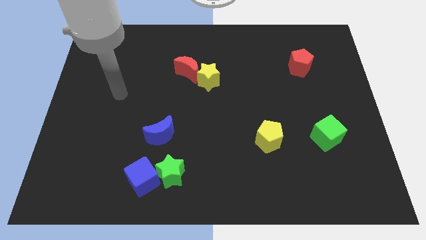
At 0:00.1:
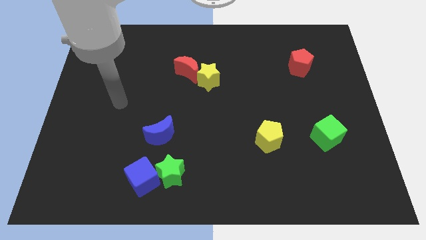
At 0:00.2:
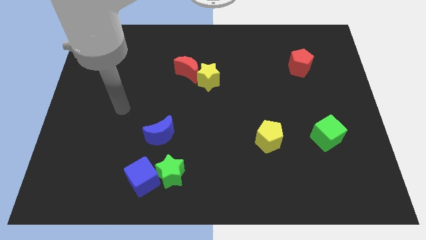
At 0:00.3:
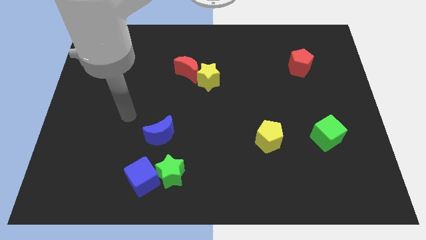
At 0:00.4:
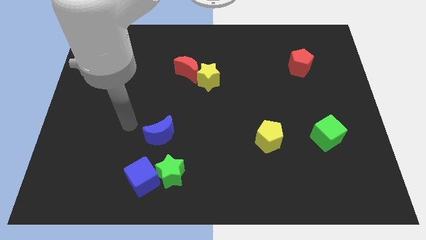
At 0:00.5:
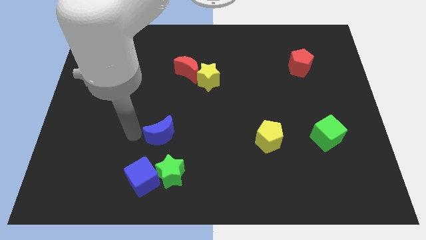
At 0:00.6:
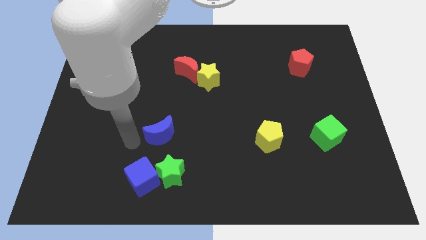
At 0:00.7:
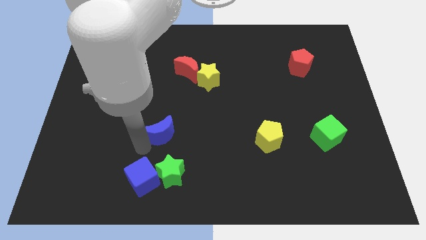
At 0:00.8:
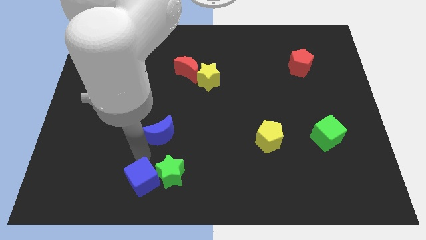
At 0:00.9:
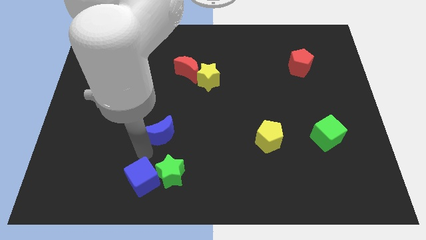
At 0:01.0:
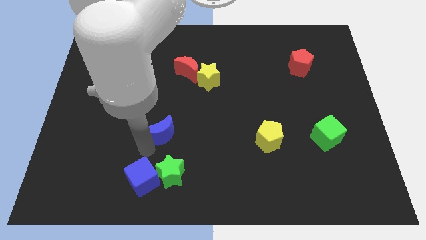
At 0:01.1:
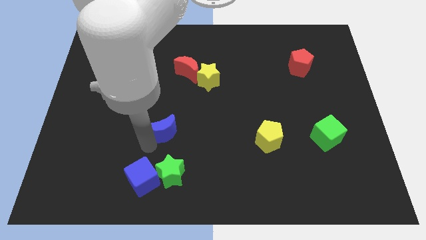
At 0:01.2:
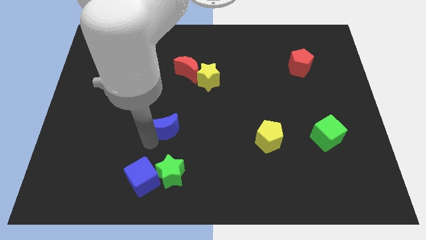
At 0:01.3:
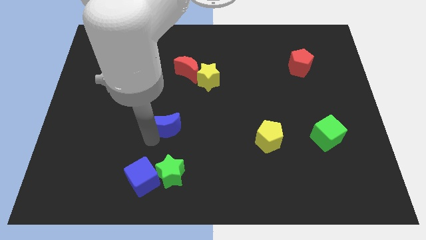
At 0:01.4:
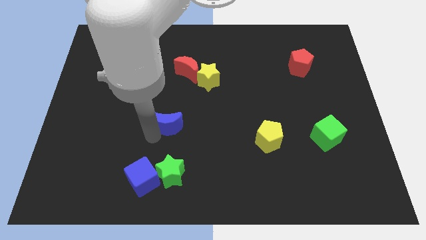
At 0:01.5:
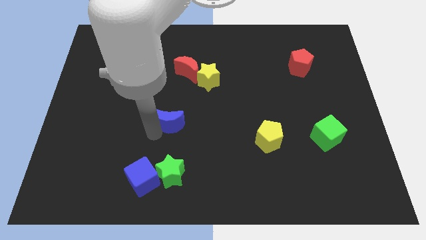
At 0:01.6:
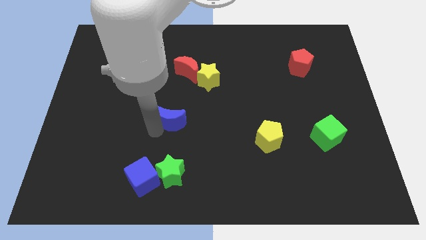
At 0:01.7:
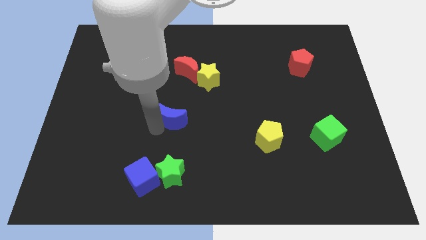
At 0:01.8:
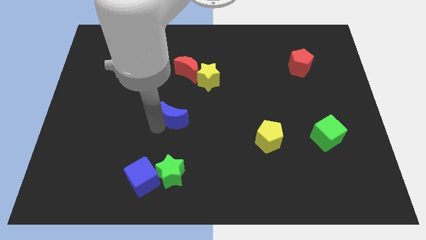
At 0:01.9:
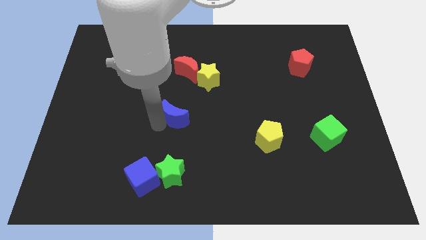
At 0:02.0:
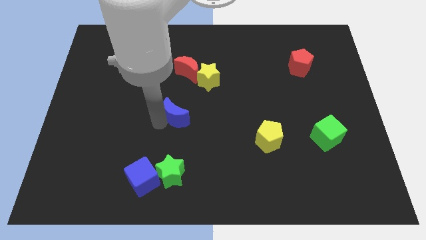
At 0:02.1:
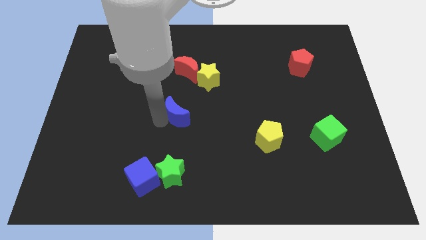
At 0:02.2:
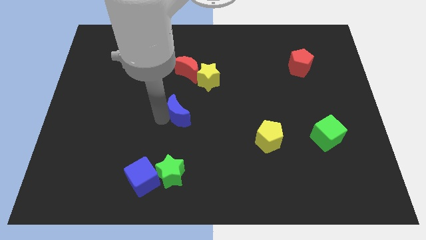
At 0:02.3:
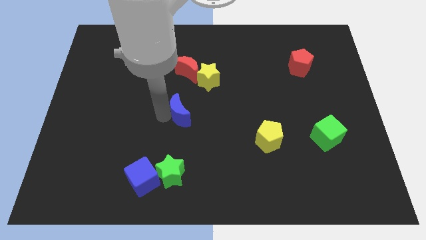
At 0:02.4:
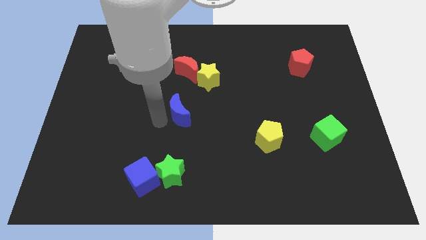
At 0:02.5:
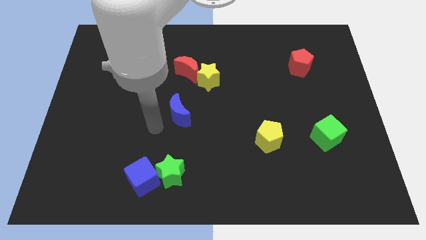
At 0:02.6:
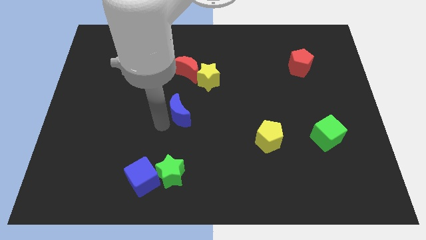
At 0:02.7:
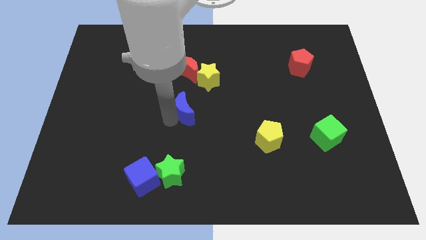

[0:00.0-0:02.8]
slightly slide the blue moon upwards and then to the right

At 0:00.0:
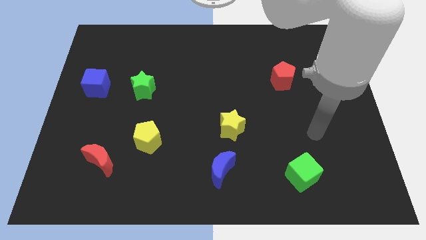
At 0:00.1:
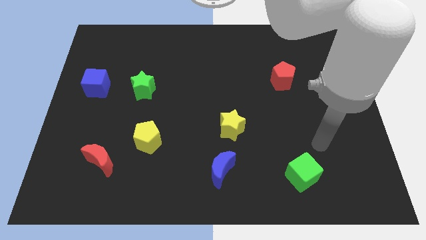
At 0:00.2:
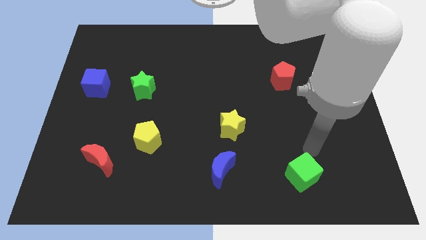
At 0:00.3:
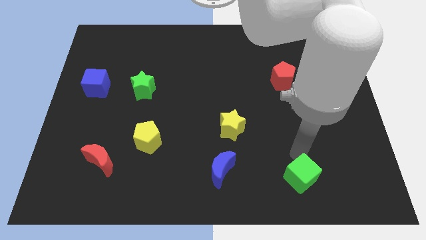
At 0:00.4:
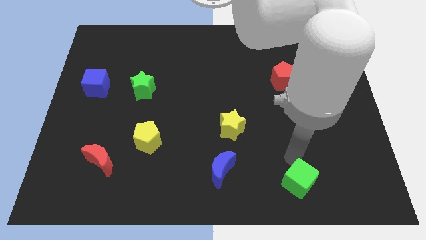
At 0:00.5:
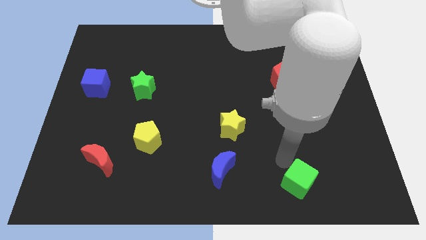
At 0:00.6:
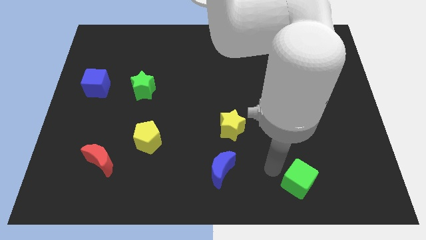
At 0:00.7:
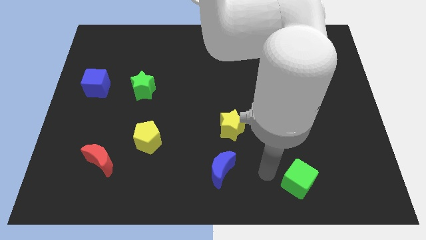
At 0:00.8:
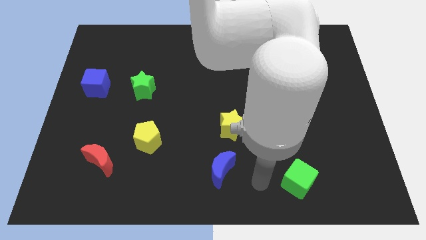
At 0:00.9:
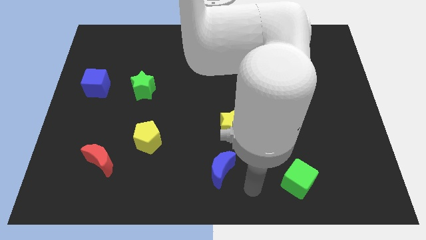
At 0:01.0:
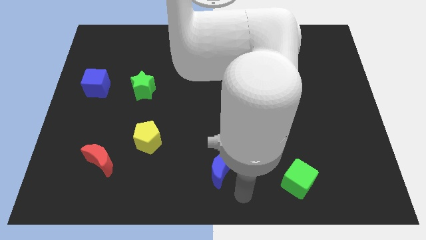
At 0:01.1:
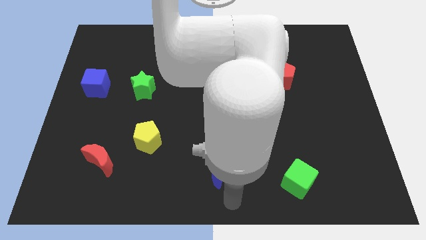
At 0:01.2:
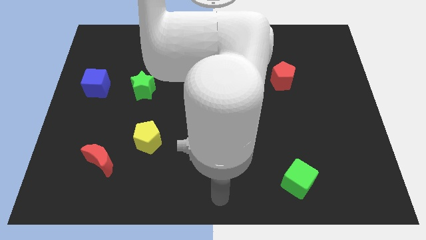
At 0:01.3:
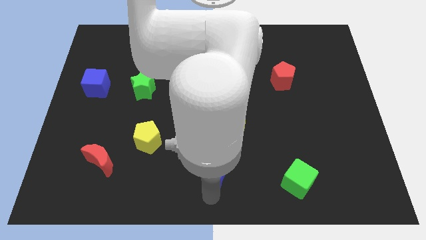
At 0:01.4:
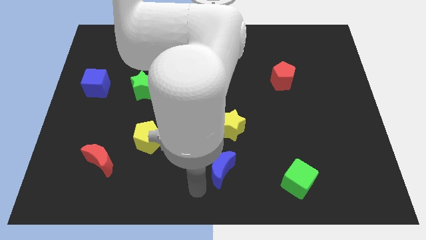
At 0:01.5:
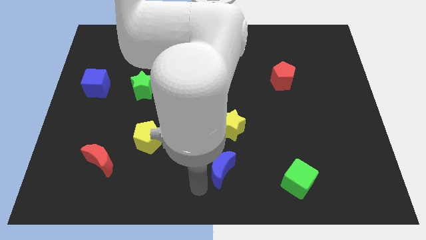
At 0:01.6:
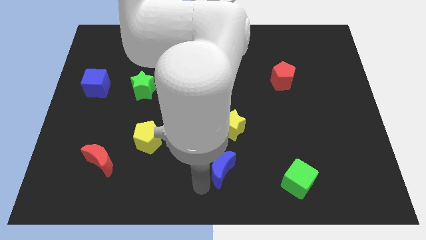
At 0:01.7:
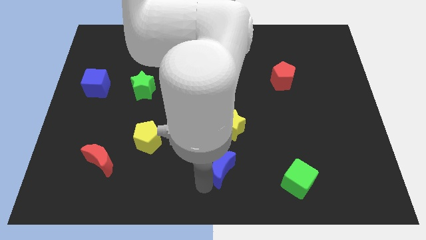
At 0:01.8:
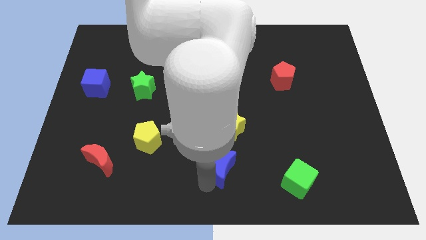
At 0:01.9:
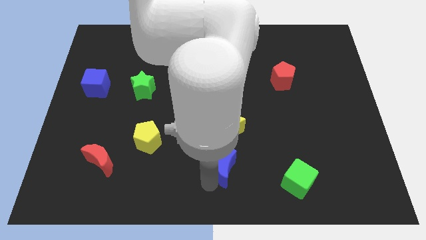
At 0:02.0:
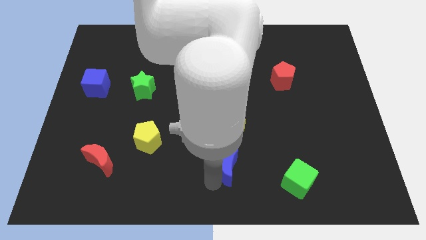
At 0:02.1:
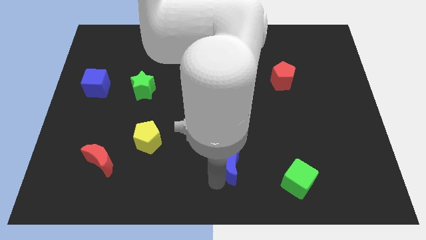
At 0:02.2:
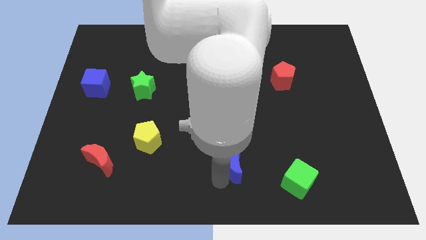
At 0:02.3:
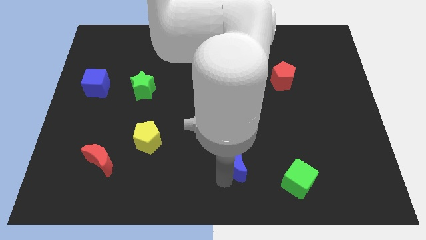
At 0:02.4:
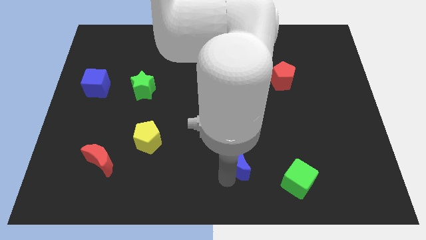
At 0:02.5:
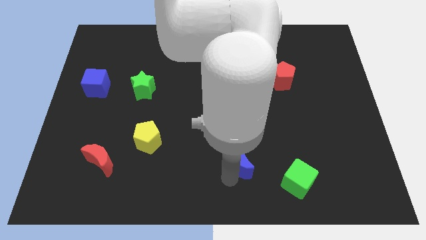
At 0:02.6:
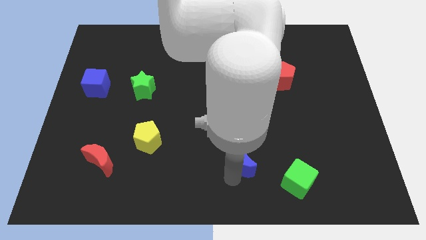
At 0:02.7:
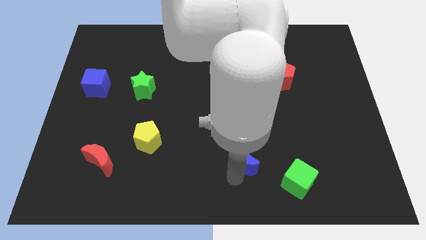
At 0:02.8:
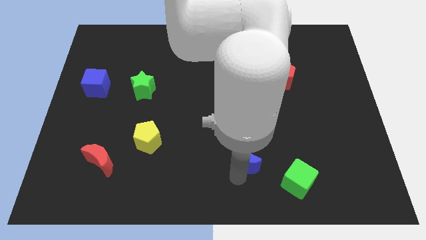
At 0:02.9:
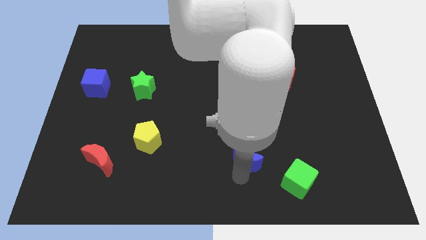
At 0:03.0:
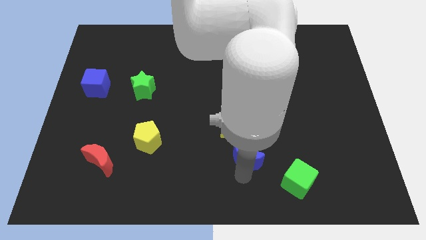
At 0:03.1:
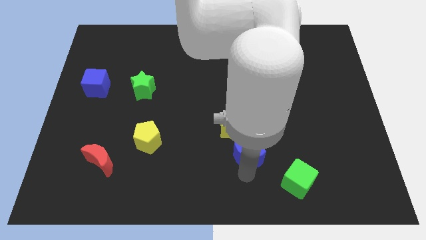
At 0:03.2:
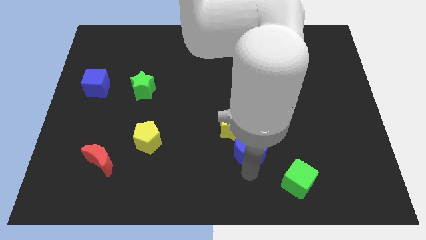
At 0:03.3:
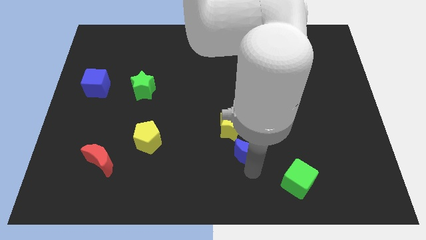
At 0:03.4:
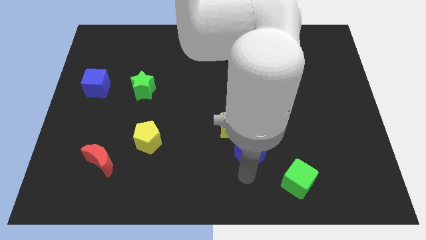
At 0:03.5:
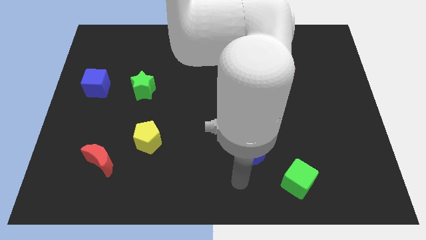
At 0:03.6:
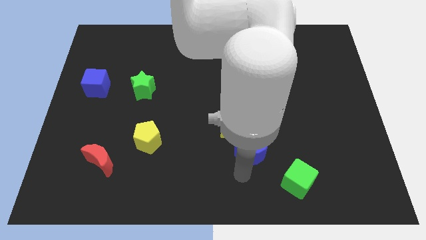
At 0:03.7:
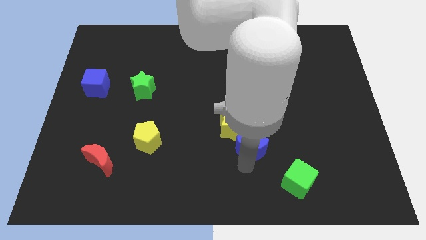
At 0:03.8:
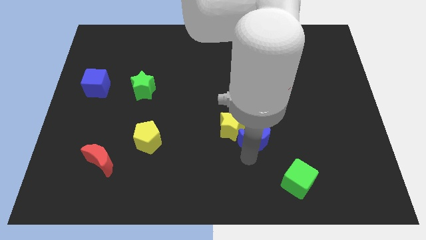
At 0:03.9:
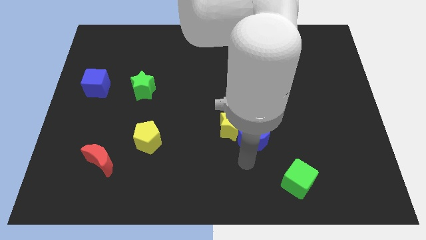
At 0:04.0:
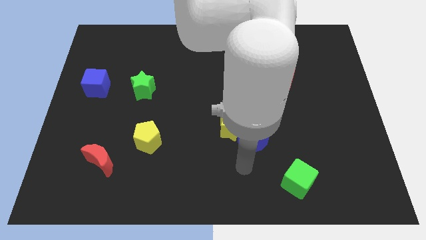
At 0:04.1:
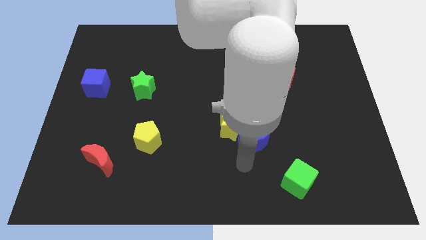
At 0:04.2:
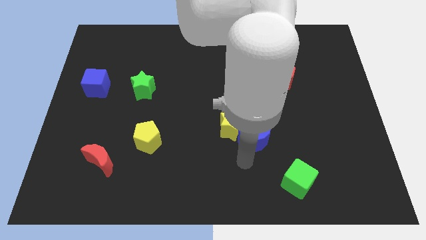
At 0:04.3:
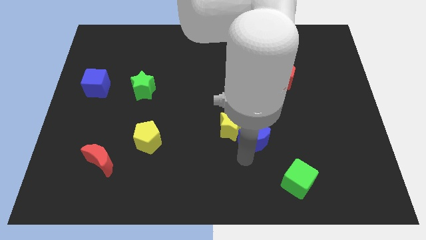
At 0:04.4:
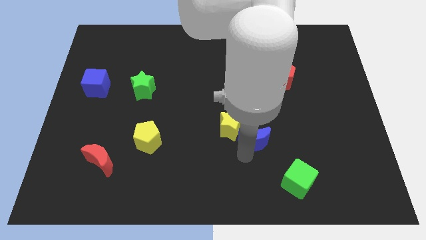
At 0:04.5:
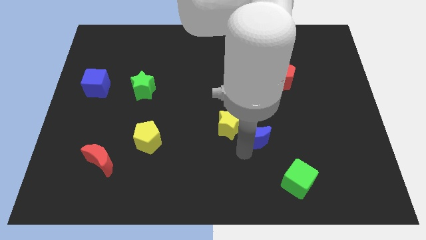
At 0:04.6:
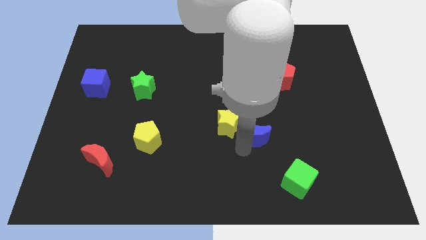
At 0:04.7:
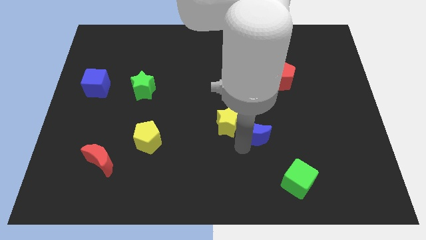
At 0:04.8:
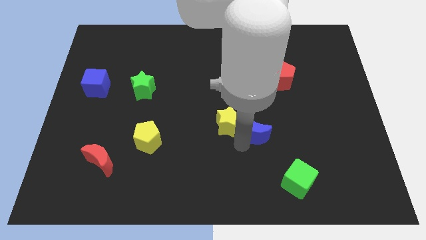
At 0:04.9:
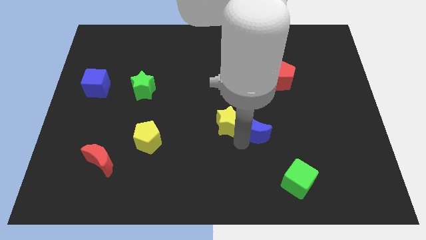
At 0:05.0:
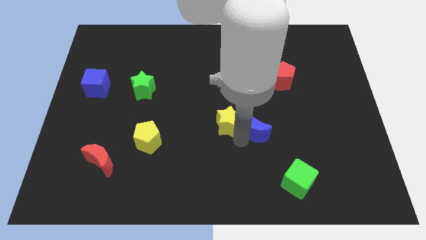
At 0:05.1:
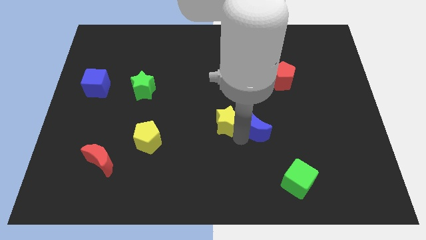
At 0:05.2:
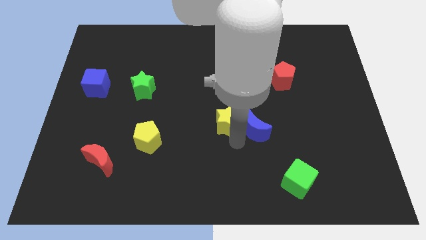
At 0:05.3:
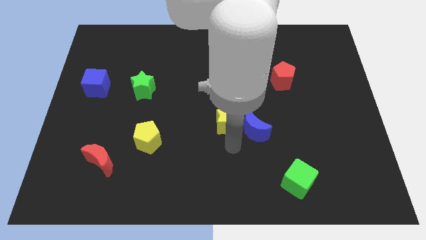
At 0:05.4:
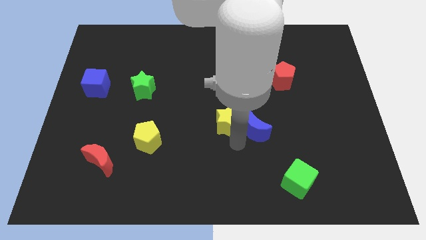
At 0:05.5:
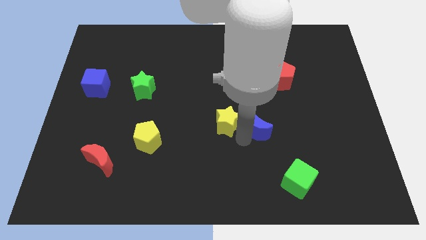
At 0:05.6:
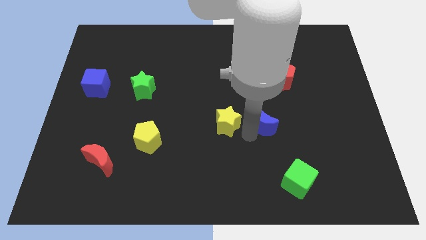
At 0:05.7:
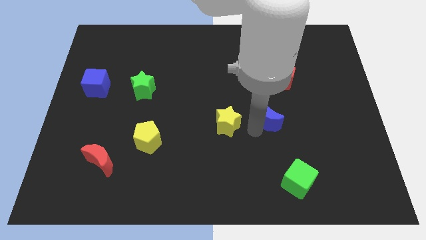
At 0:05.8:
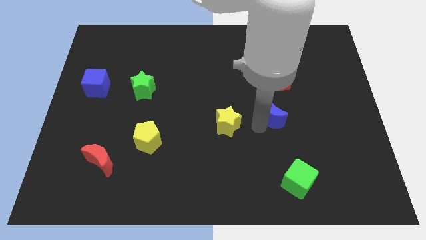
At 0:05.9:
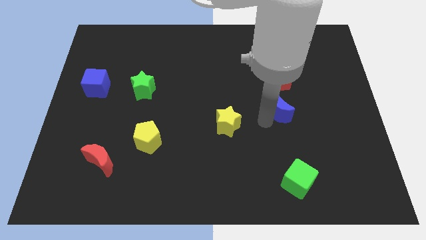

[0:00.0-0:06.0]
move the blue moon upwards and to the right
